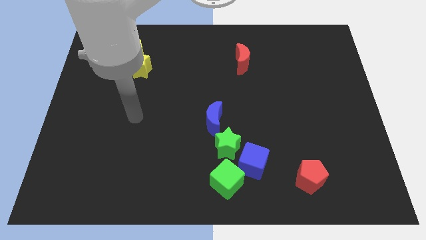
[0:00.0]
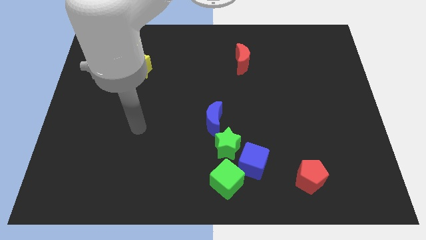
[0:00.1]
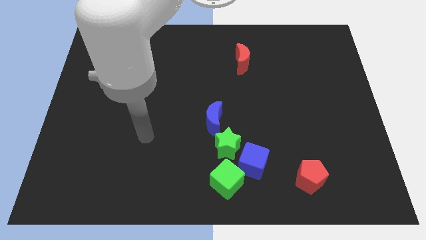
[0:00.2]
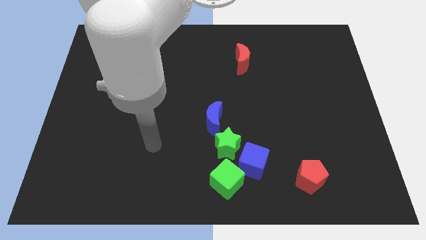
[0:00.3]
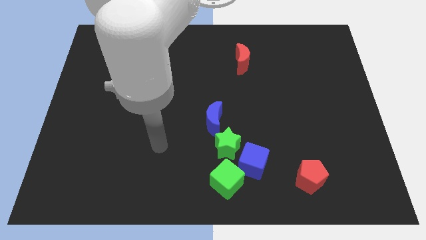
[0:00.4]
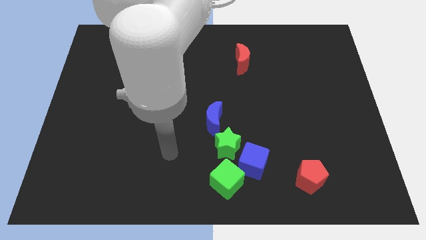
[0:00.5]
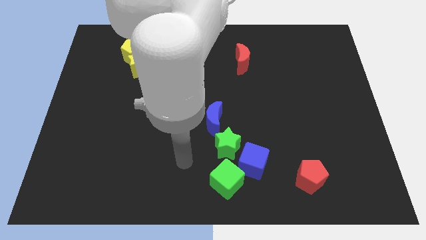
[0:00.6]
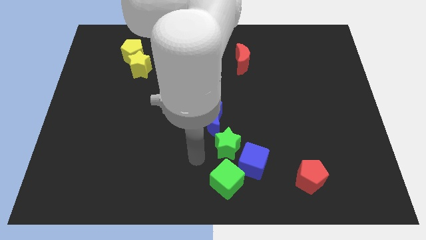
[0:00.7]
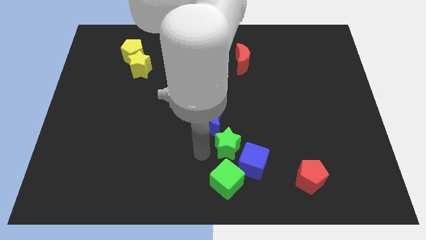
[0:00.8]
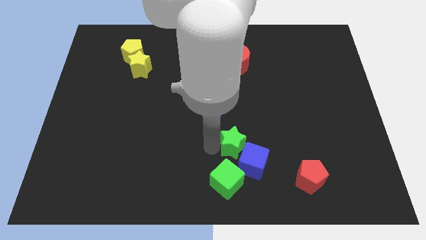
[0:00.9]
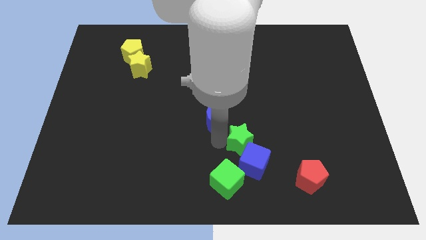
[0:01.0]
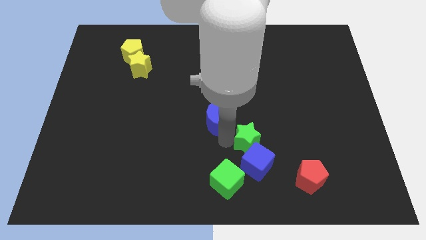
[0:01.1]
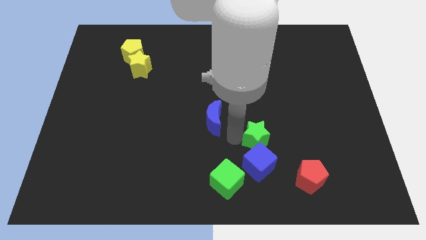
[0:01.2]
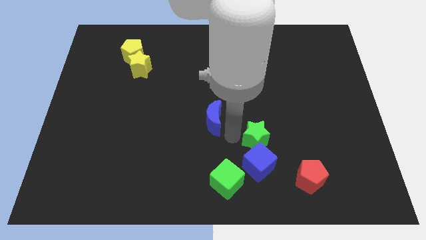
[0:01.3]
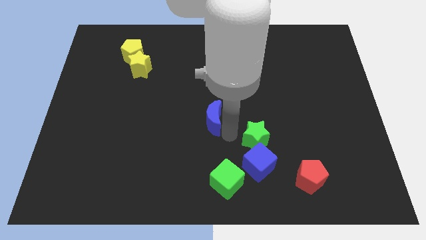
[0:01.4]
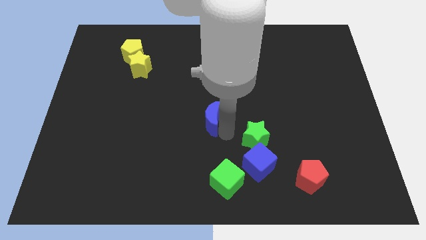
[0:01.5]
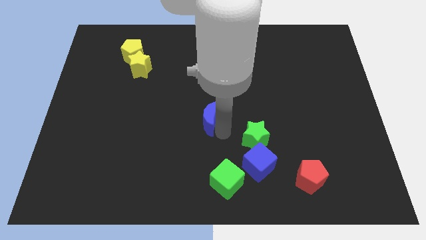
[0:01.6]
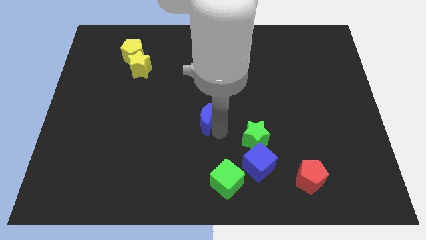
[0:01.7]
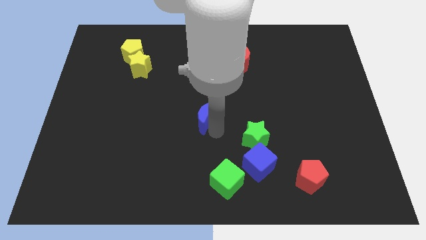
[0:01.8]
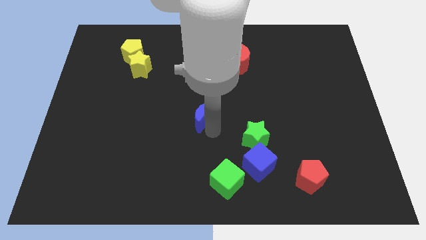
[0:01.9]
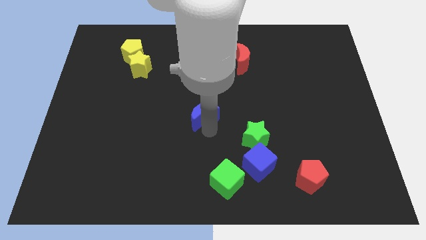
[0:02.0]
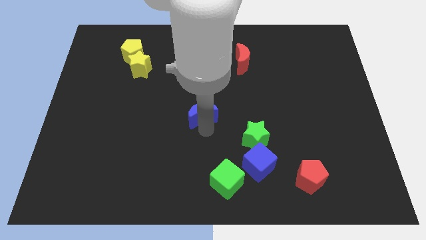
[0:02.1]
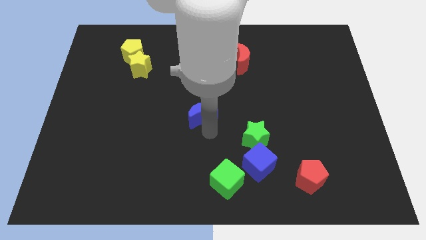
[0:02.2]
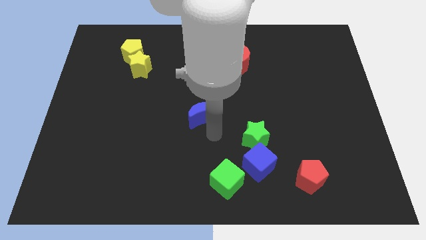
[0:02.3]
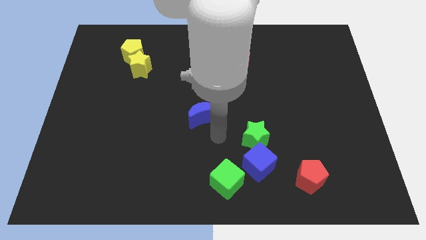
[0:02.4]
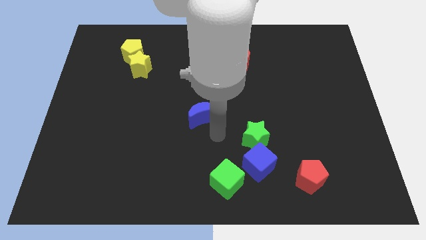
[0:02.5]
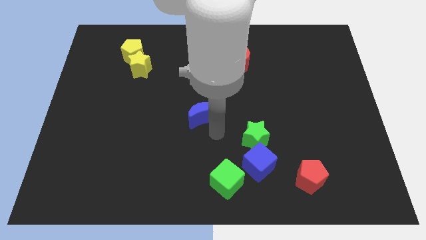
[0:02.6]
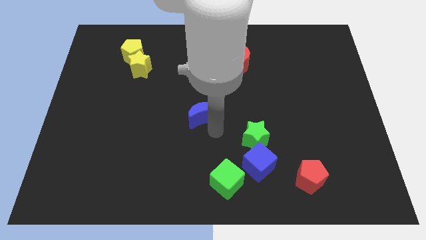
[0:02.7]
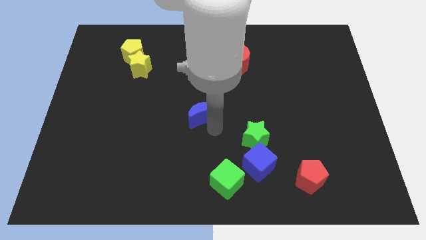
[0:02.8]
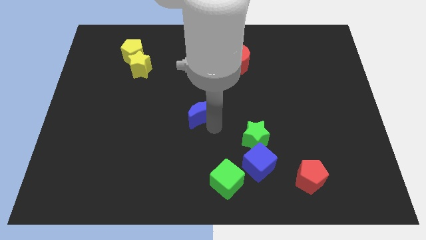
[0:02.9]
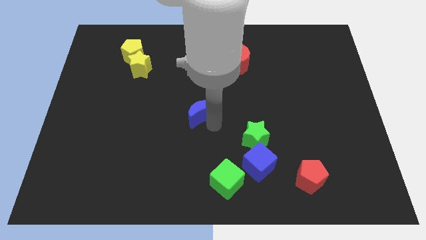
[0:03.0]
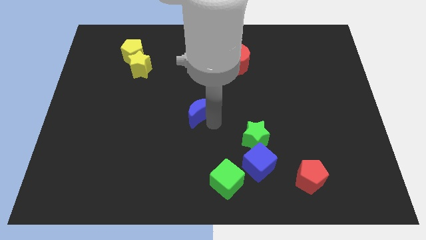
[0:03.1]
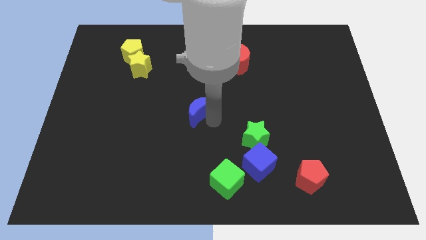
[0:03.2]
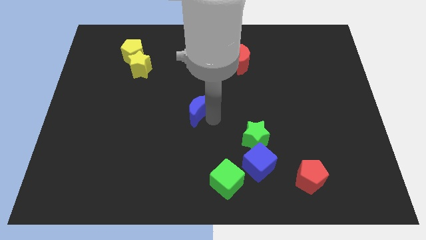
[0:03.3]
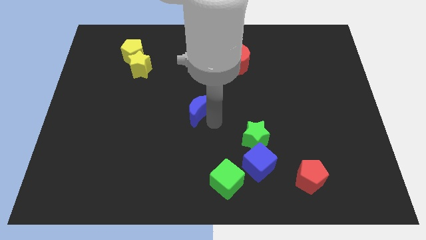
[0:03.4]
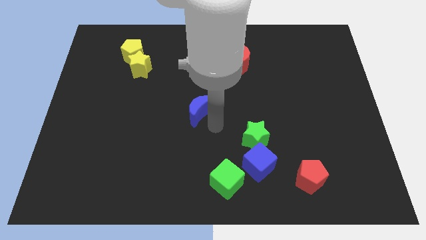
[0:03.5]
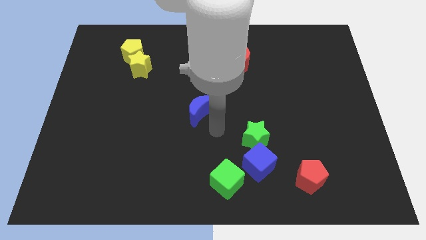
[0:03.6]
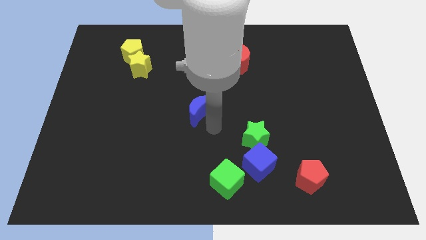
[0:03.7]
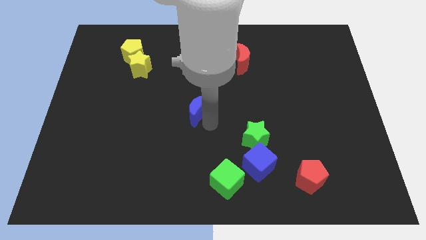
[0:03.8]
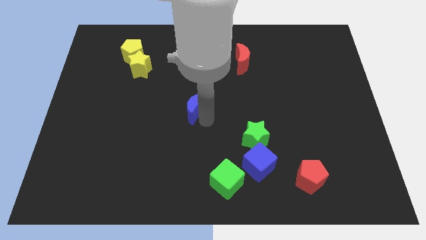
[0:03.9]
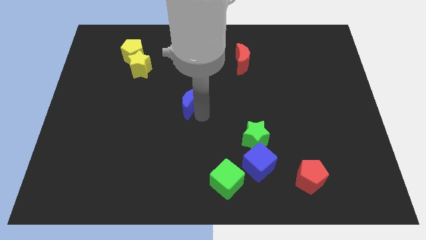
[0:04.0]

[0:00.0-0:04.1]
slightly slide the blue moon up and left

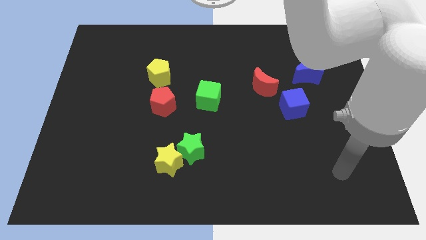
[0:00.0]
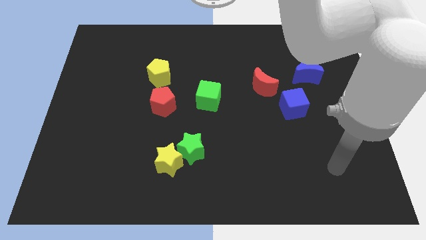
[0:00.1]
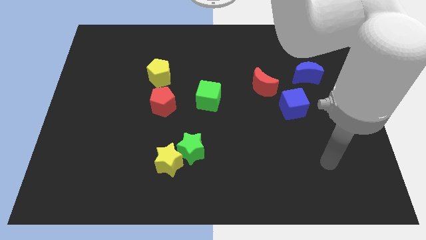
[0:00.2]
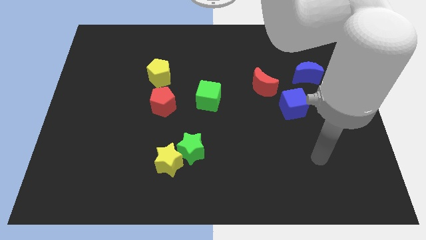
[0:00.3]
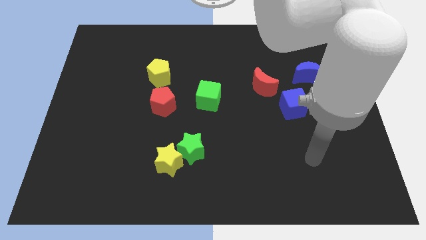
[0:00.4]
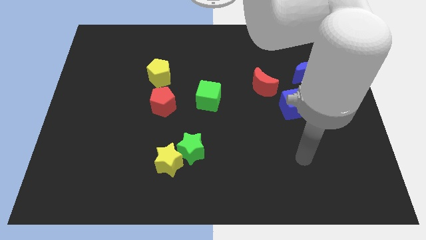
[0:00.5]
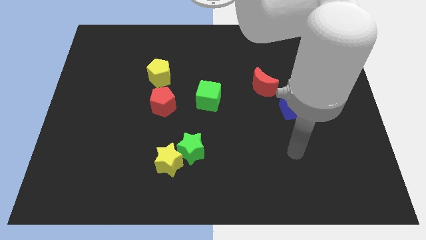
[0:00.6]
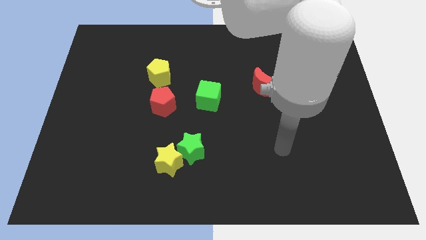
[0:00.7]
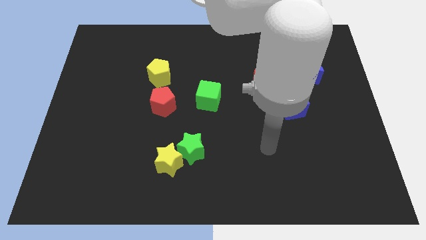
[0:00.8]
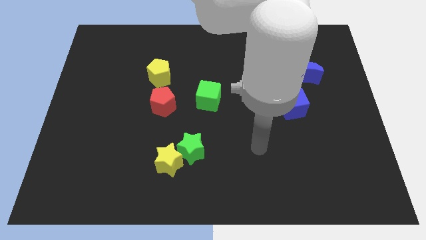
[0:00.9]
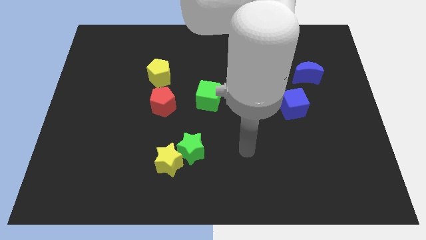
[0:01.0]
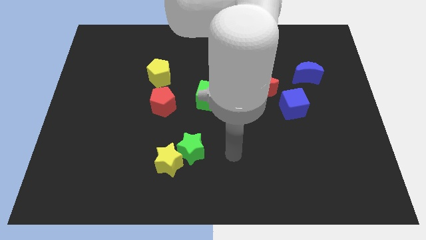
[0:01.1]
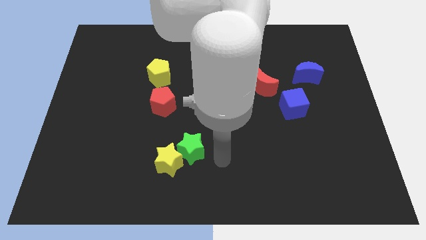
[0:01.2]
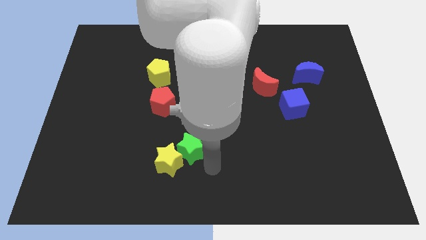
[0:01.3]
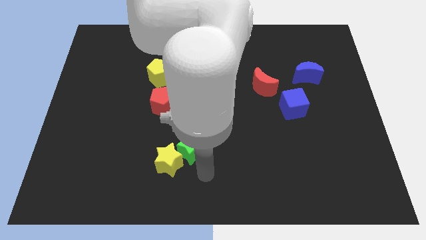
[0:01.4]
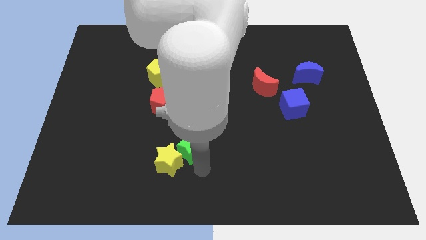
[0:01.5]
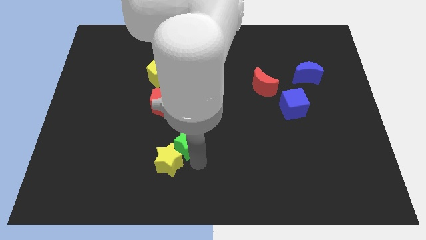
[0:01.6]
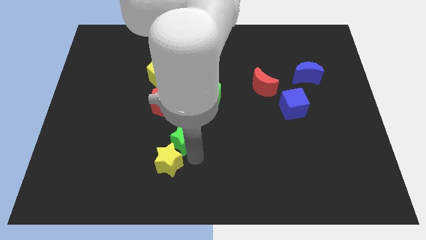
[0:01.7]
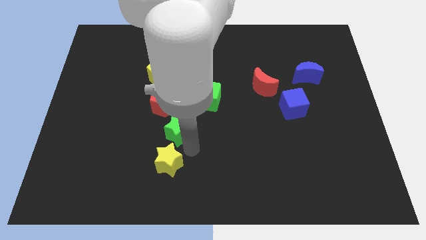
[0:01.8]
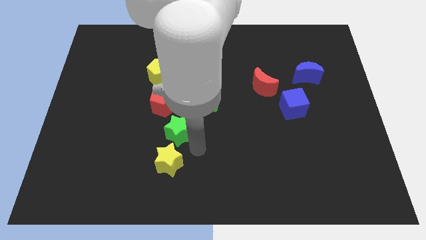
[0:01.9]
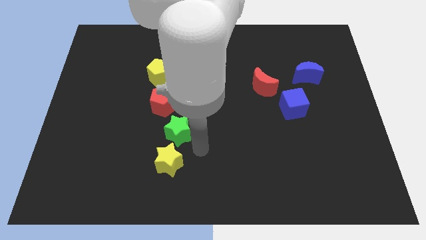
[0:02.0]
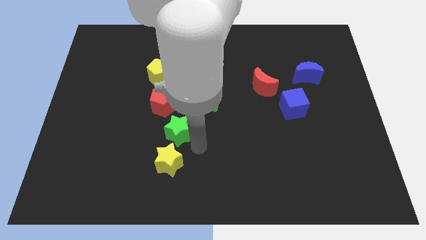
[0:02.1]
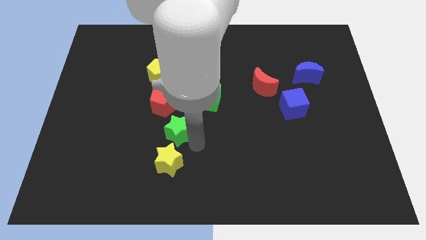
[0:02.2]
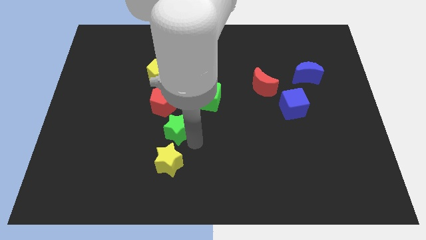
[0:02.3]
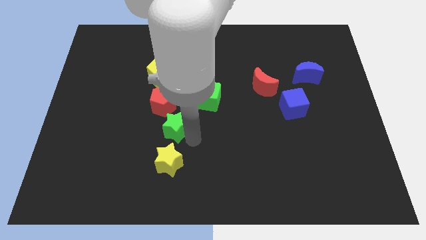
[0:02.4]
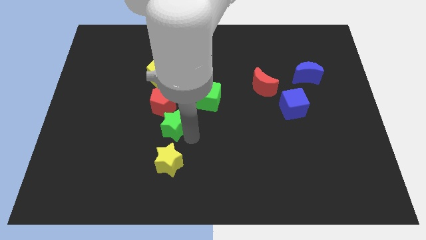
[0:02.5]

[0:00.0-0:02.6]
slide the green star a little bit upwards and then left

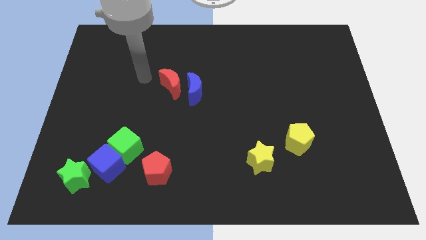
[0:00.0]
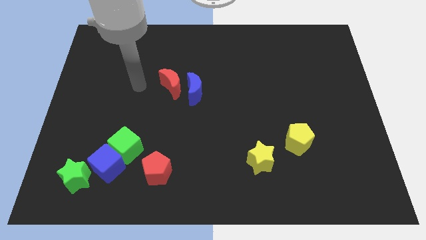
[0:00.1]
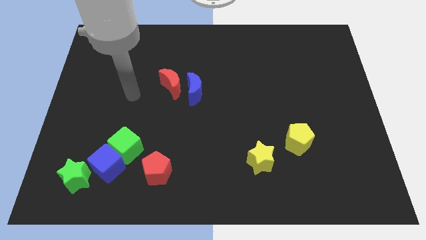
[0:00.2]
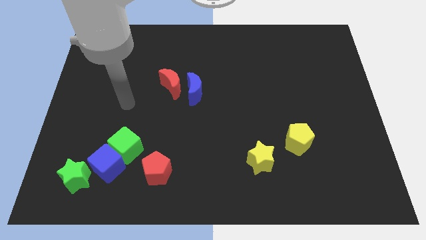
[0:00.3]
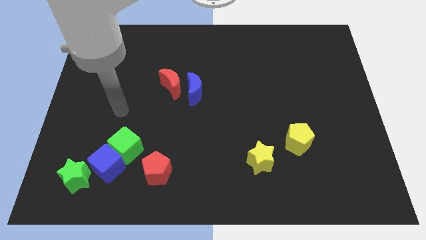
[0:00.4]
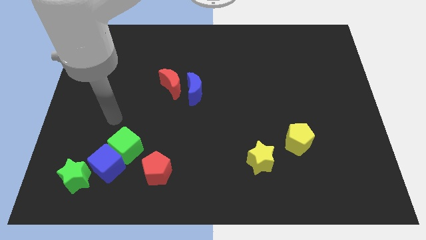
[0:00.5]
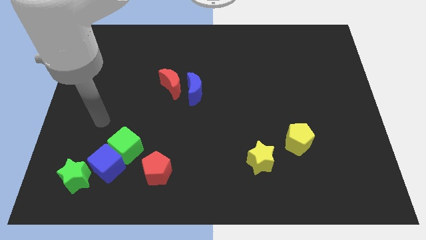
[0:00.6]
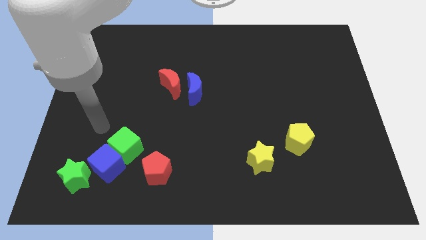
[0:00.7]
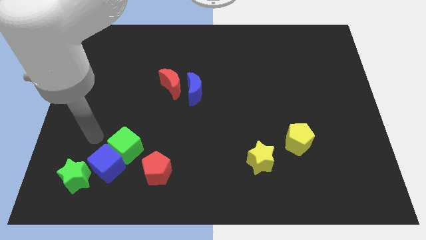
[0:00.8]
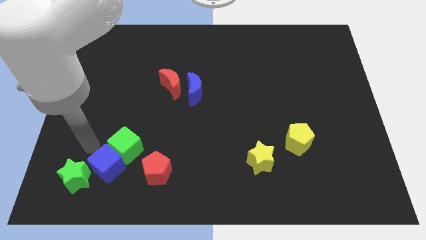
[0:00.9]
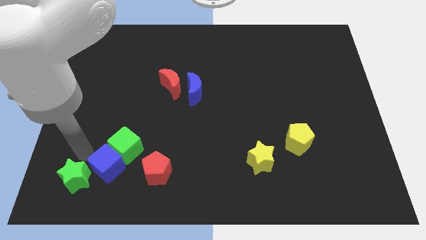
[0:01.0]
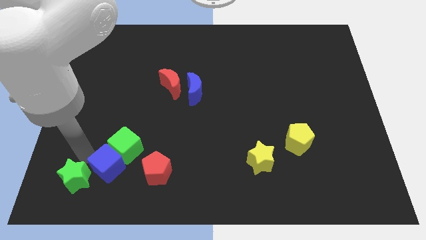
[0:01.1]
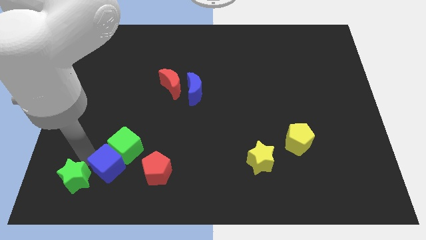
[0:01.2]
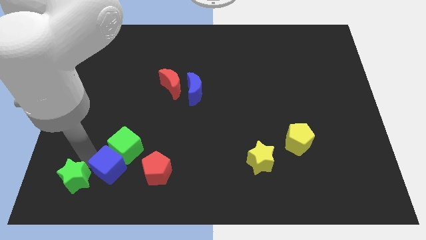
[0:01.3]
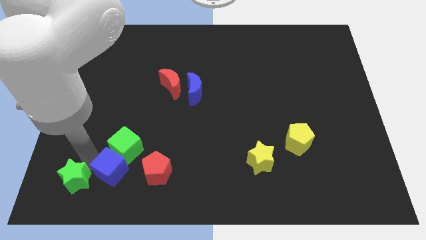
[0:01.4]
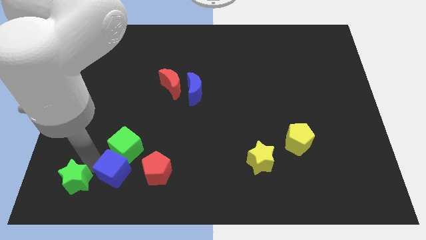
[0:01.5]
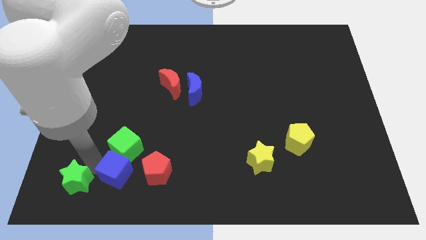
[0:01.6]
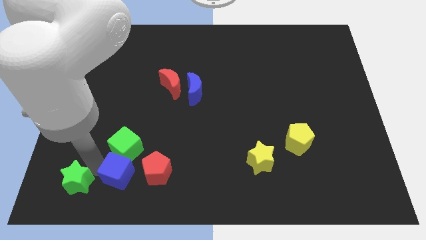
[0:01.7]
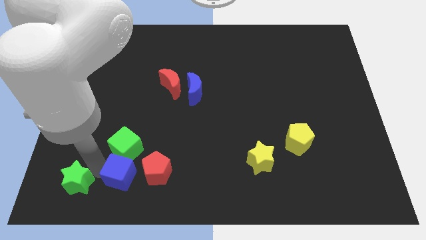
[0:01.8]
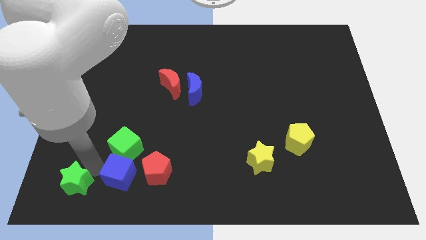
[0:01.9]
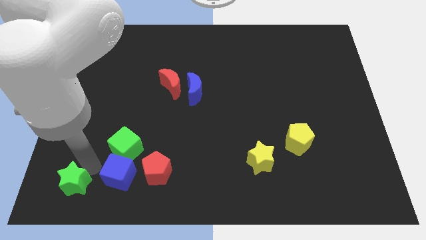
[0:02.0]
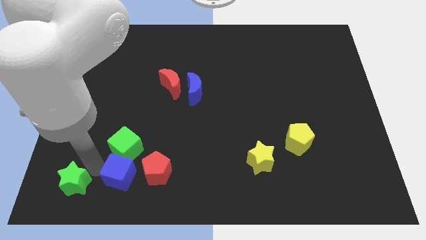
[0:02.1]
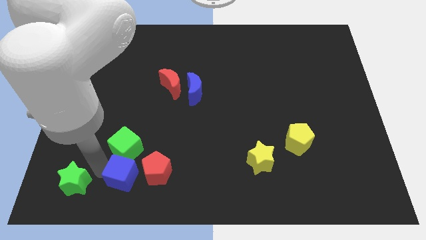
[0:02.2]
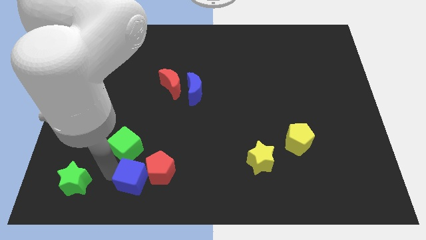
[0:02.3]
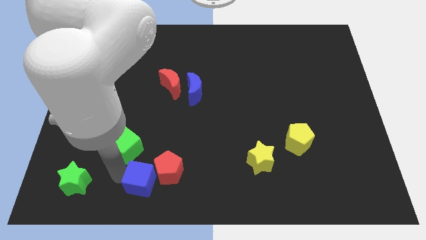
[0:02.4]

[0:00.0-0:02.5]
move the blue cube right somewhat
